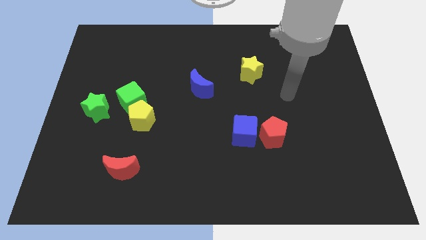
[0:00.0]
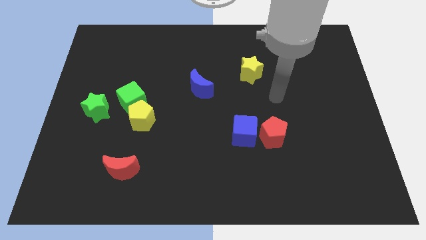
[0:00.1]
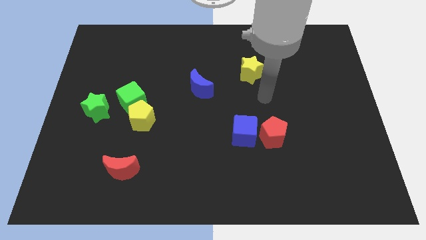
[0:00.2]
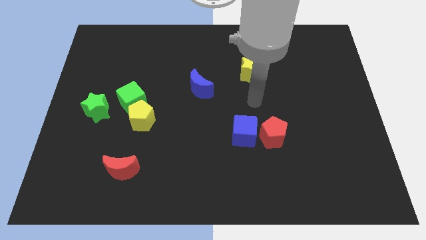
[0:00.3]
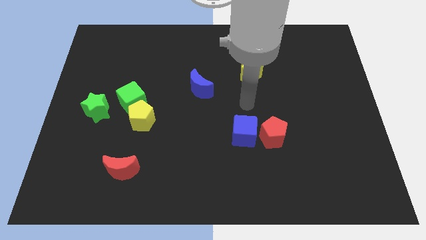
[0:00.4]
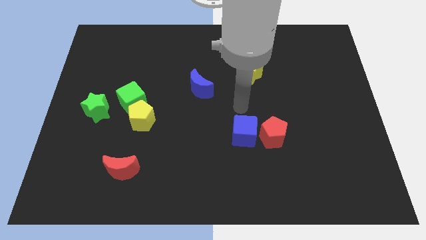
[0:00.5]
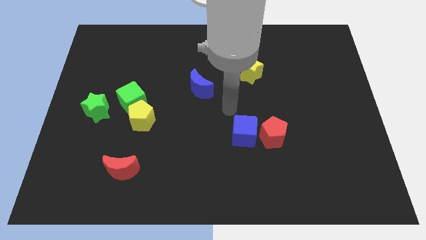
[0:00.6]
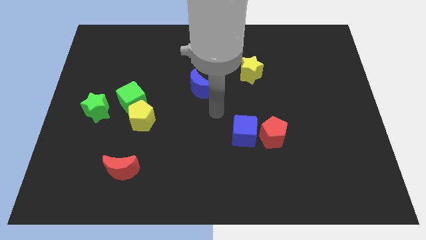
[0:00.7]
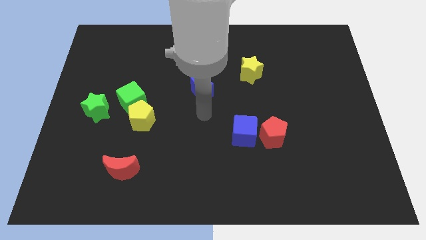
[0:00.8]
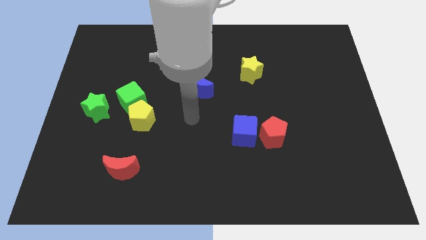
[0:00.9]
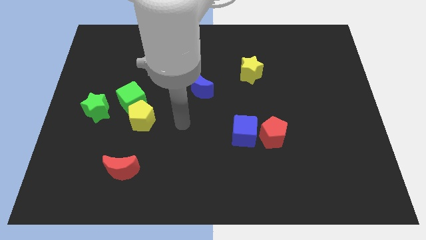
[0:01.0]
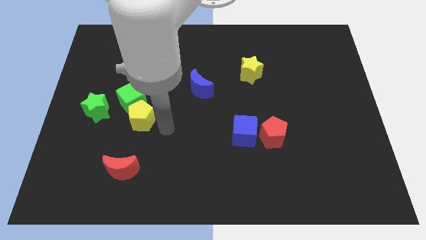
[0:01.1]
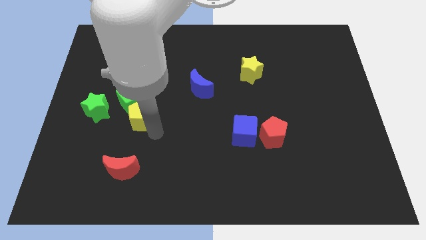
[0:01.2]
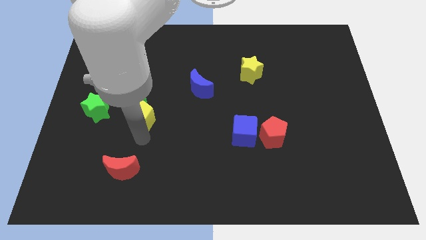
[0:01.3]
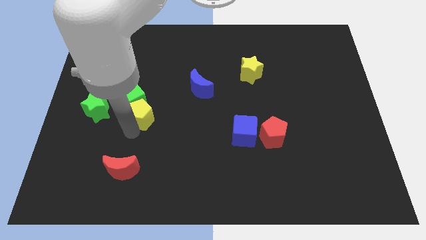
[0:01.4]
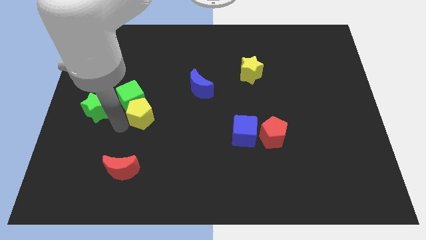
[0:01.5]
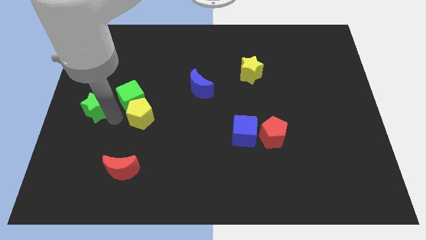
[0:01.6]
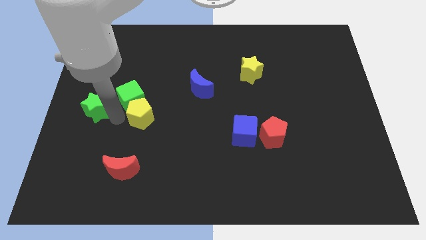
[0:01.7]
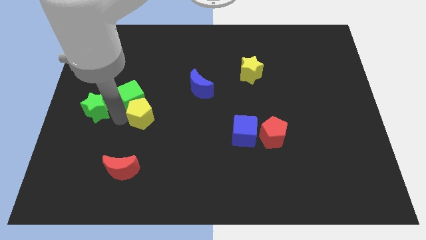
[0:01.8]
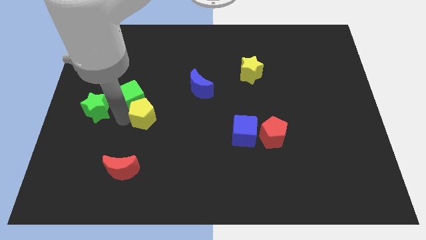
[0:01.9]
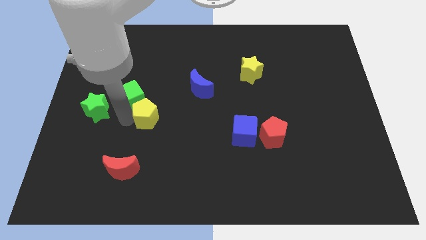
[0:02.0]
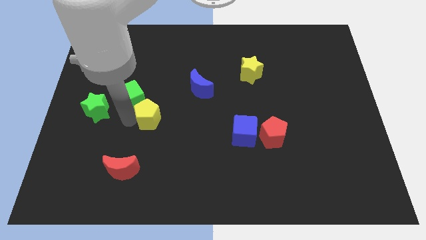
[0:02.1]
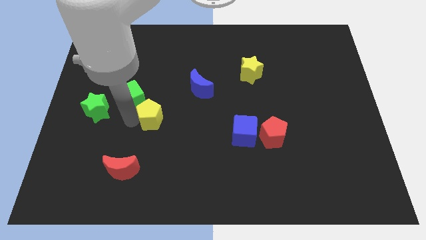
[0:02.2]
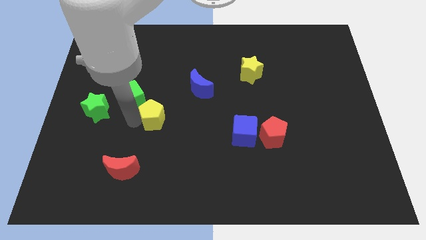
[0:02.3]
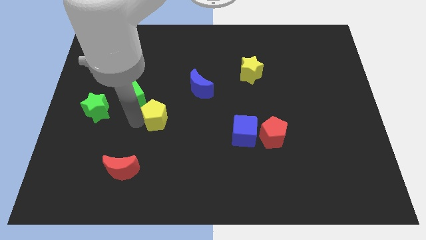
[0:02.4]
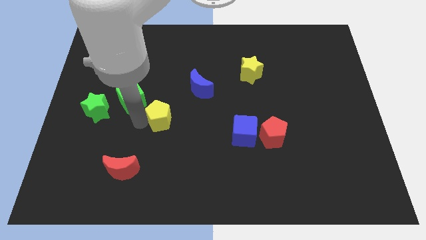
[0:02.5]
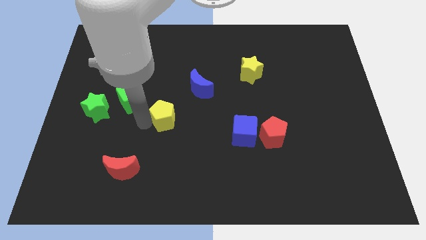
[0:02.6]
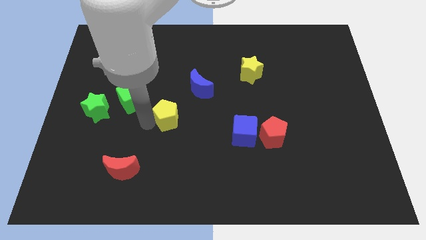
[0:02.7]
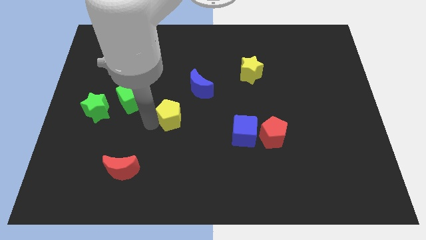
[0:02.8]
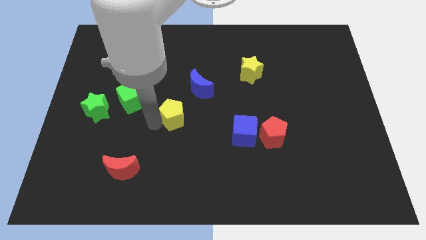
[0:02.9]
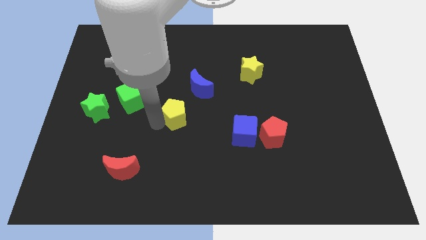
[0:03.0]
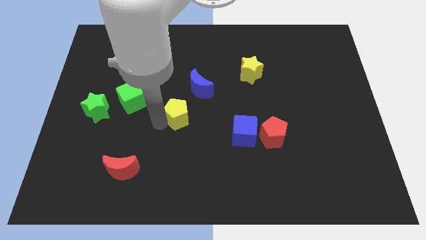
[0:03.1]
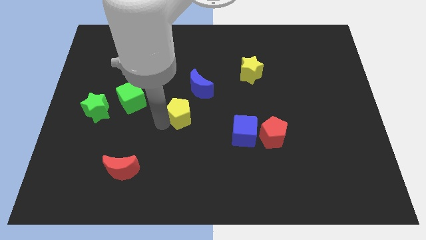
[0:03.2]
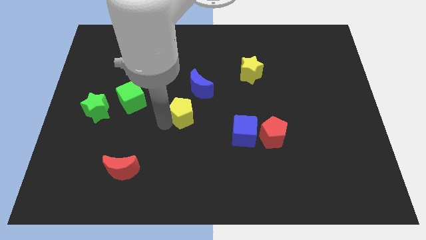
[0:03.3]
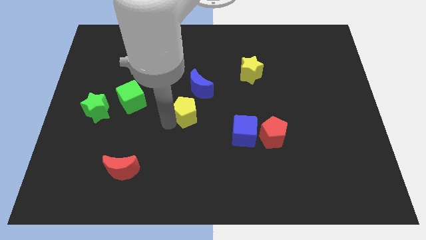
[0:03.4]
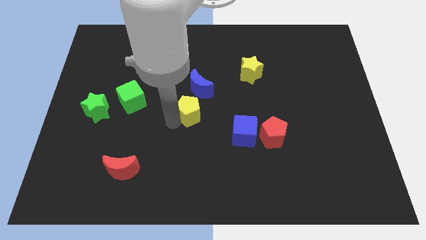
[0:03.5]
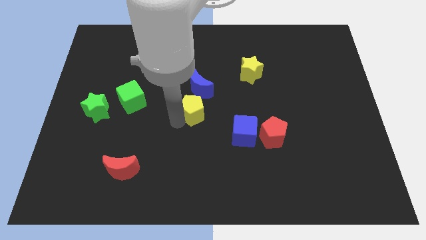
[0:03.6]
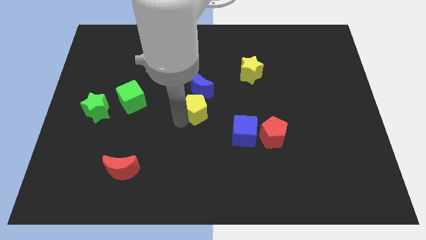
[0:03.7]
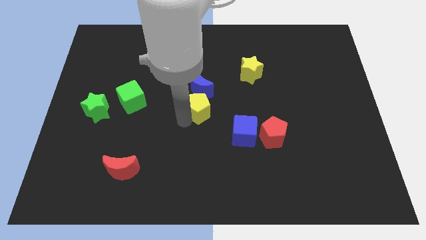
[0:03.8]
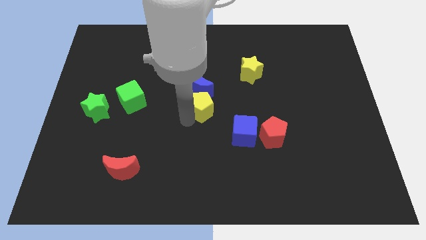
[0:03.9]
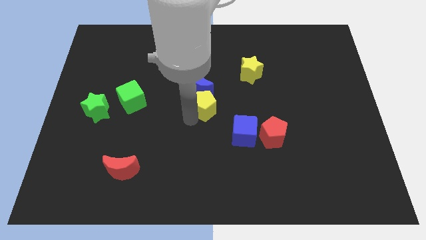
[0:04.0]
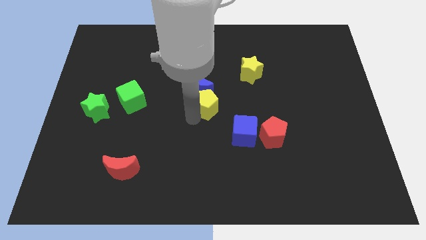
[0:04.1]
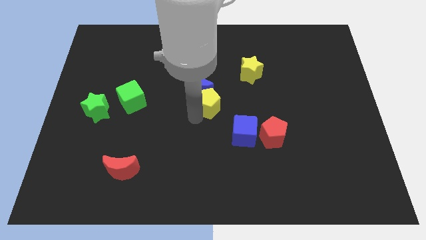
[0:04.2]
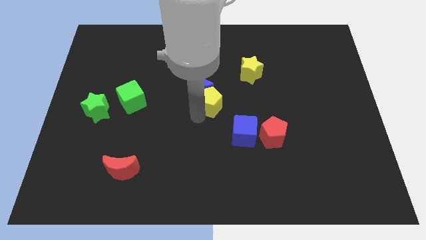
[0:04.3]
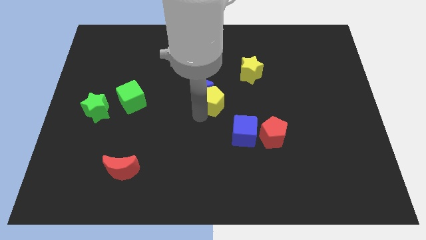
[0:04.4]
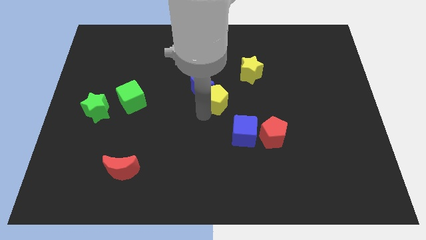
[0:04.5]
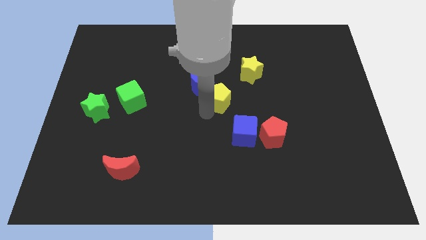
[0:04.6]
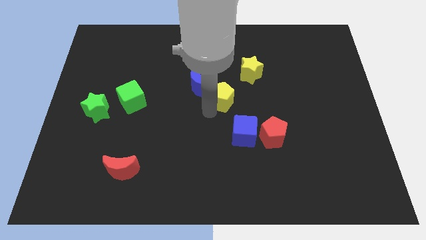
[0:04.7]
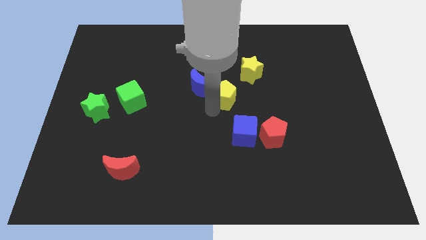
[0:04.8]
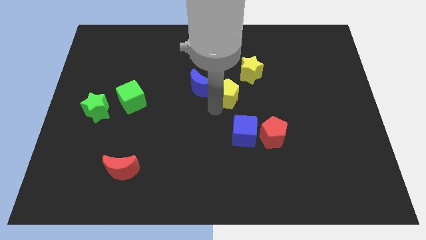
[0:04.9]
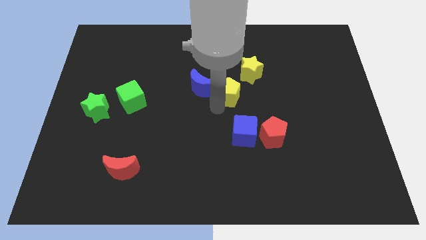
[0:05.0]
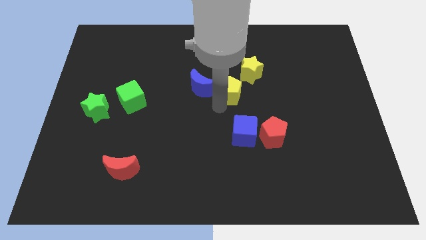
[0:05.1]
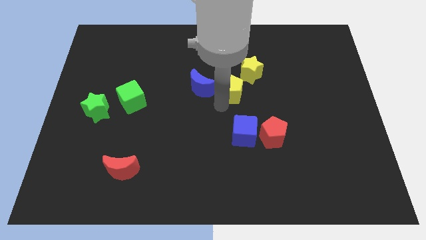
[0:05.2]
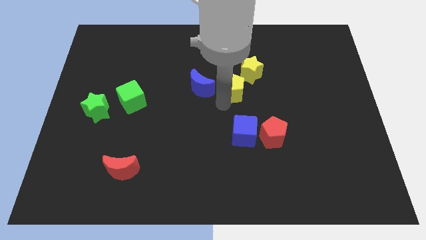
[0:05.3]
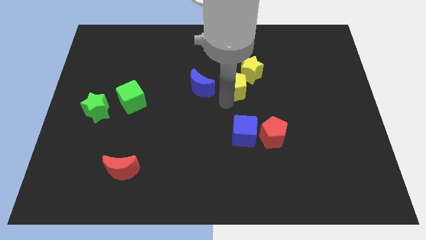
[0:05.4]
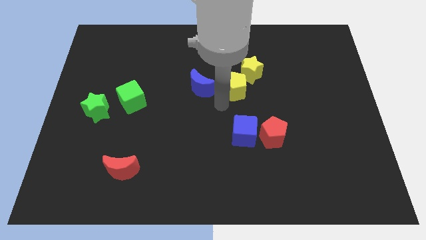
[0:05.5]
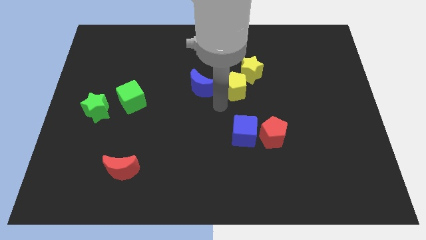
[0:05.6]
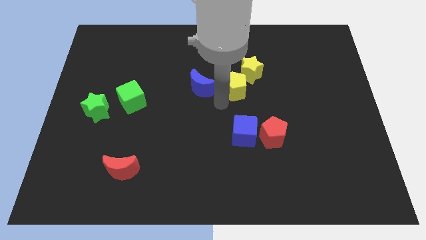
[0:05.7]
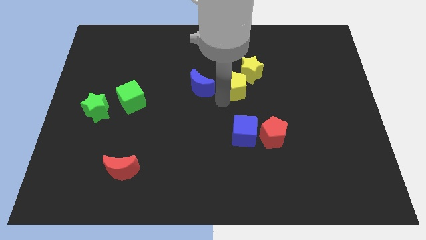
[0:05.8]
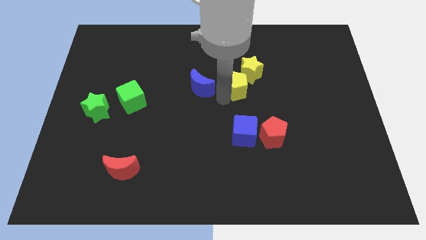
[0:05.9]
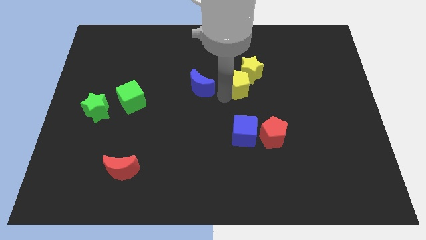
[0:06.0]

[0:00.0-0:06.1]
slide the yellow pentagon next to the yellow star

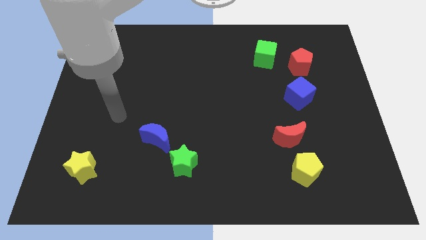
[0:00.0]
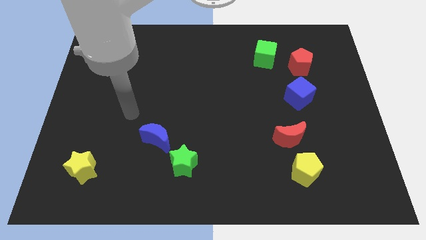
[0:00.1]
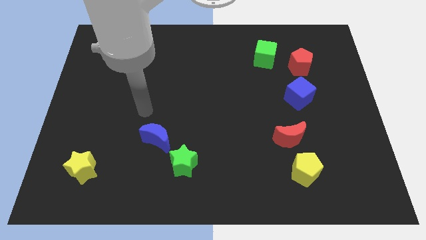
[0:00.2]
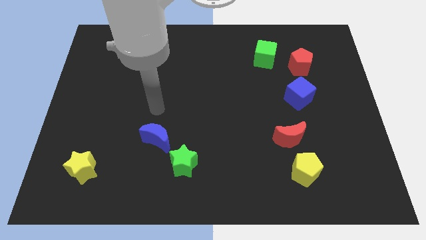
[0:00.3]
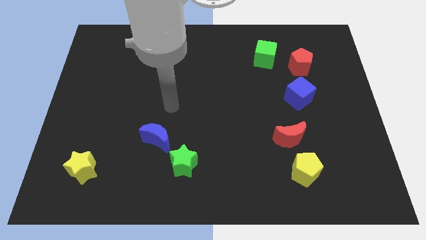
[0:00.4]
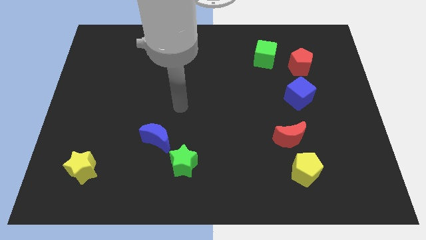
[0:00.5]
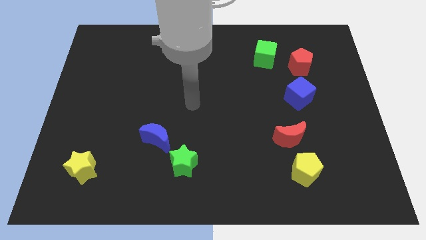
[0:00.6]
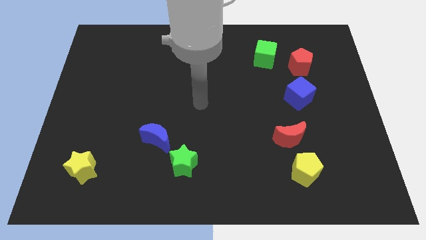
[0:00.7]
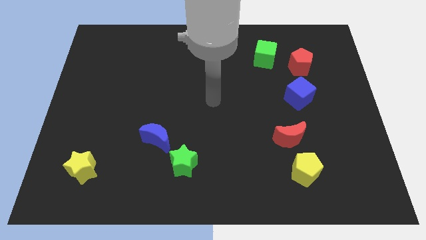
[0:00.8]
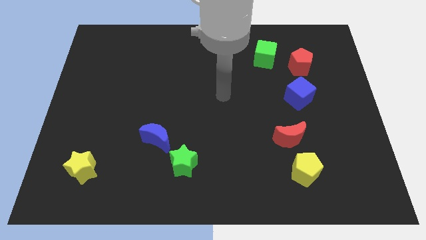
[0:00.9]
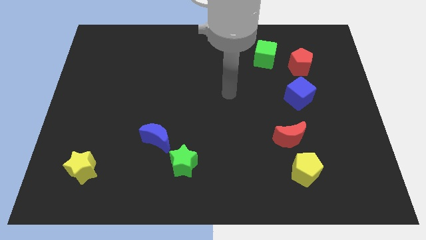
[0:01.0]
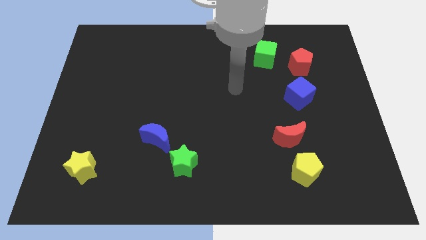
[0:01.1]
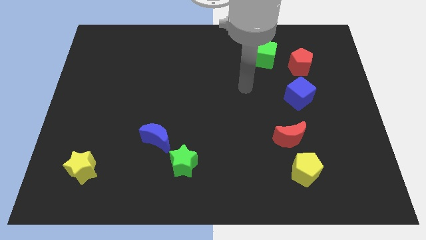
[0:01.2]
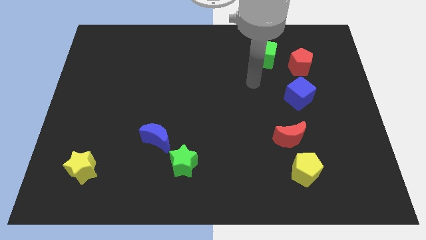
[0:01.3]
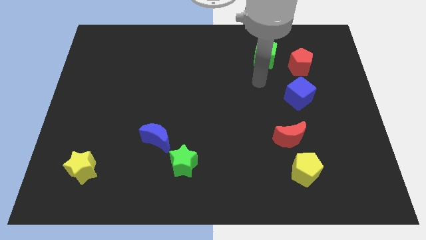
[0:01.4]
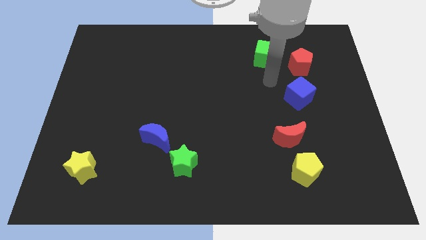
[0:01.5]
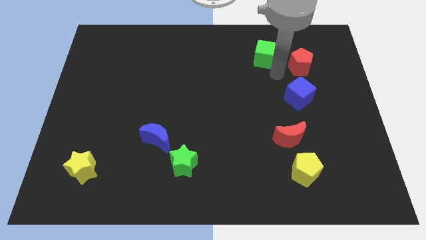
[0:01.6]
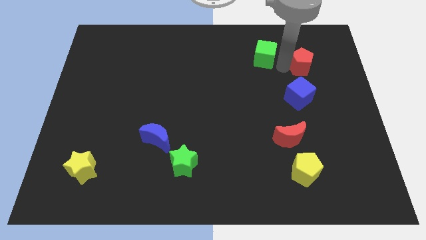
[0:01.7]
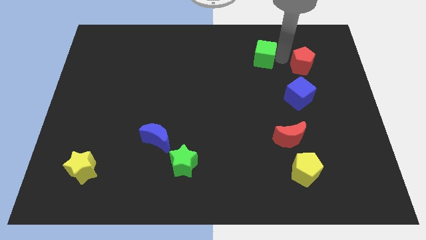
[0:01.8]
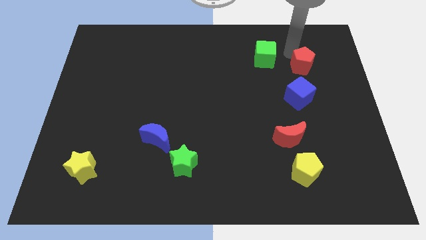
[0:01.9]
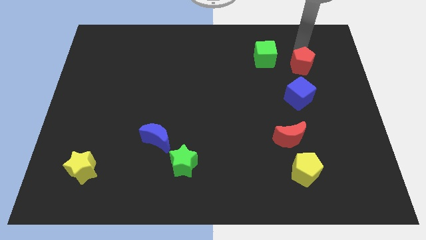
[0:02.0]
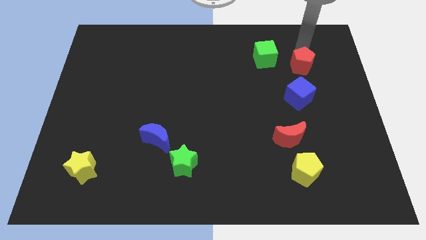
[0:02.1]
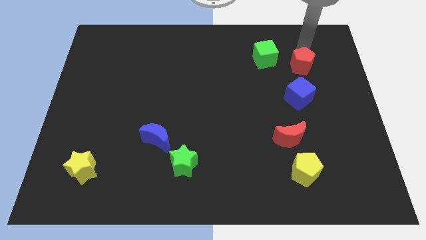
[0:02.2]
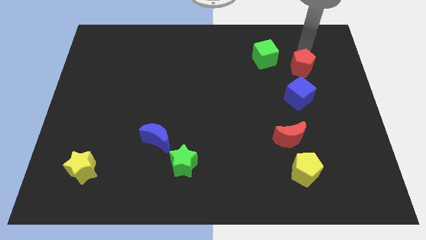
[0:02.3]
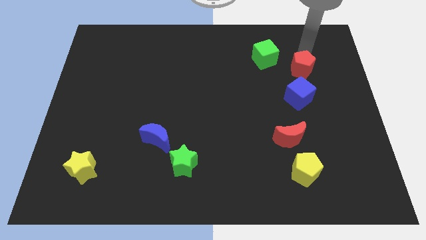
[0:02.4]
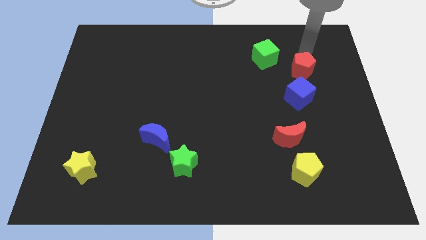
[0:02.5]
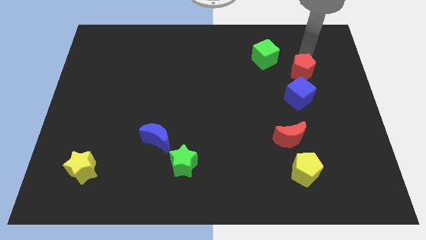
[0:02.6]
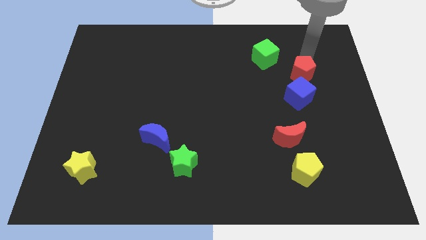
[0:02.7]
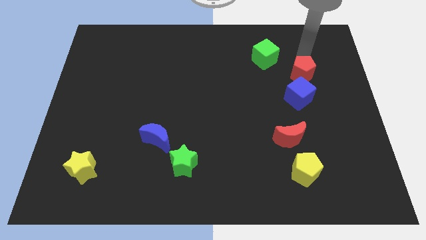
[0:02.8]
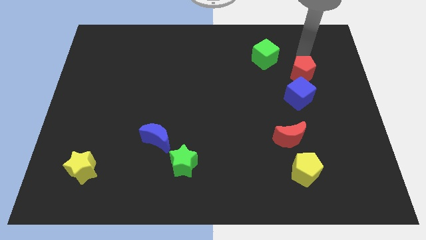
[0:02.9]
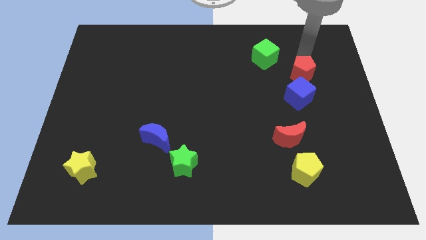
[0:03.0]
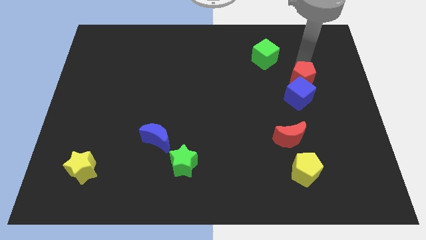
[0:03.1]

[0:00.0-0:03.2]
put the red pentagon next to the blue cube
